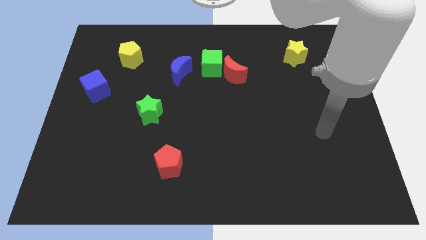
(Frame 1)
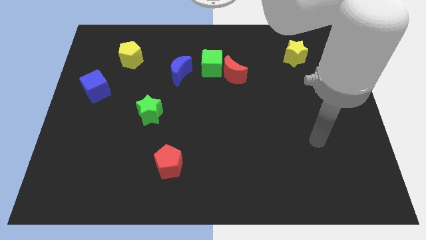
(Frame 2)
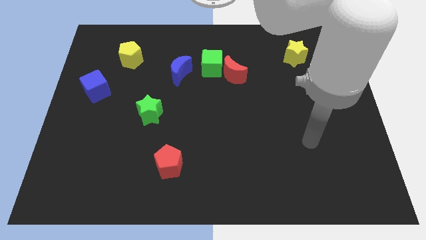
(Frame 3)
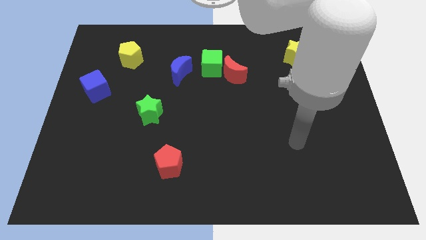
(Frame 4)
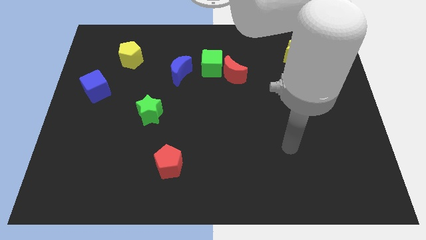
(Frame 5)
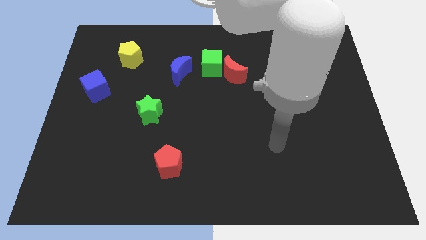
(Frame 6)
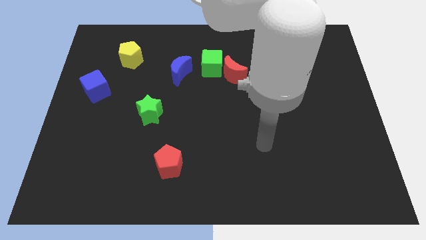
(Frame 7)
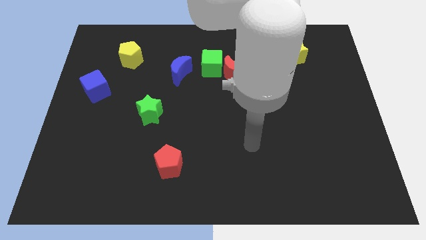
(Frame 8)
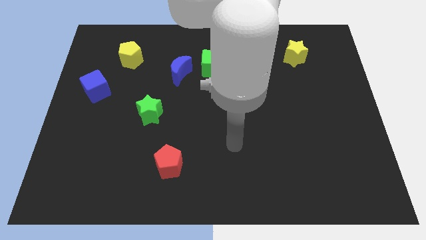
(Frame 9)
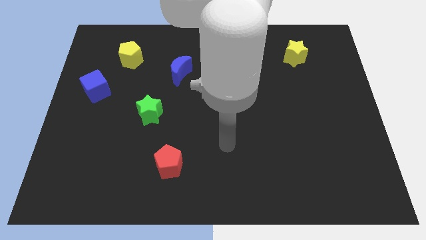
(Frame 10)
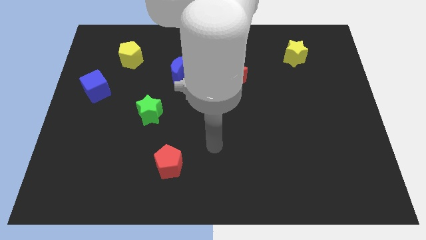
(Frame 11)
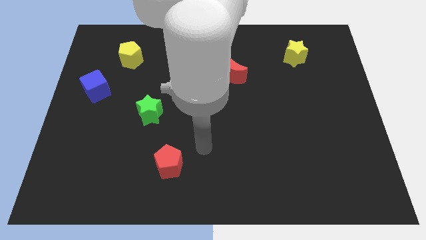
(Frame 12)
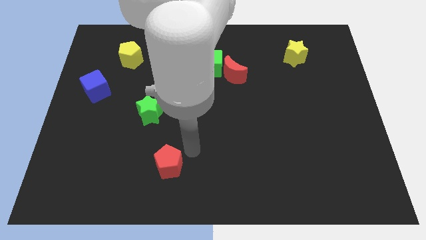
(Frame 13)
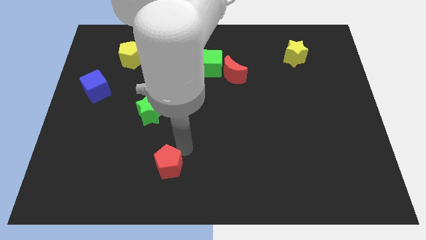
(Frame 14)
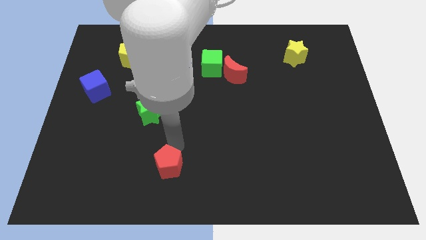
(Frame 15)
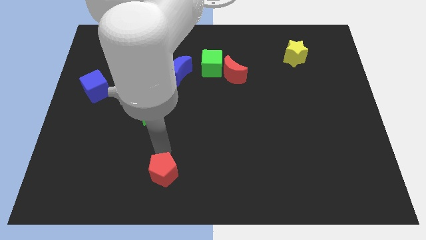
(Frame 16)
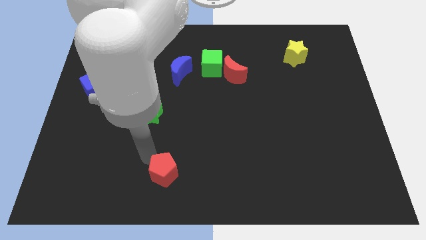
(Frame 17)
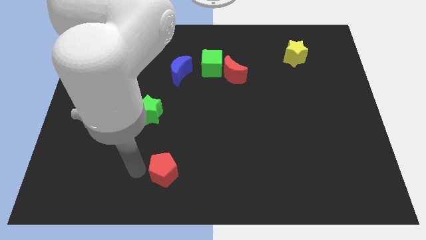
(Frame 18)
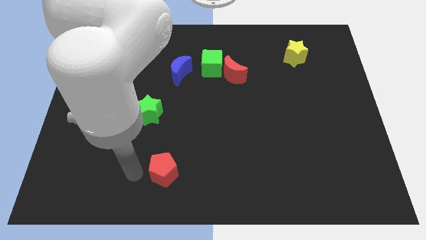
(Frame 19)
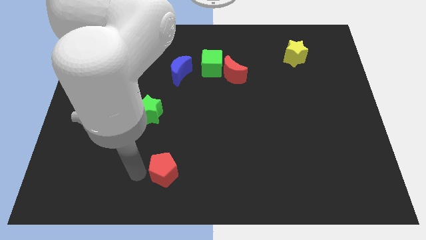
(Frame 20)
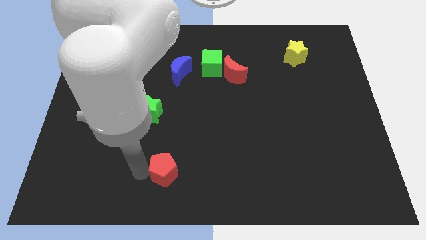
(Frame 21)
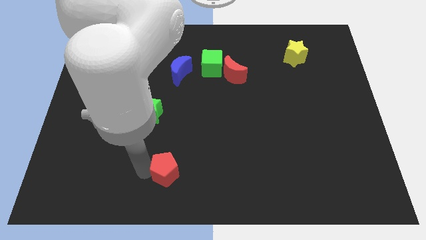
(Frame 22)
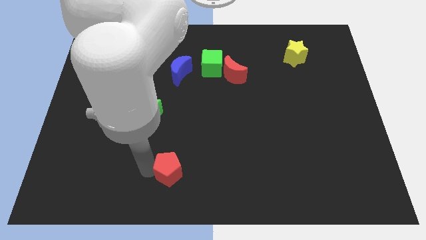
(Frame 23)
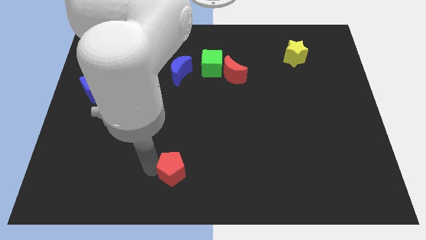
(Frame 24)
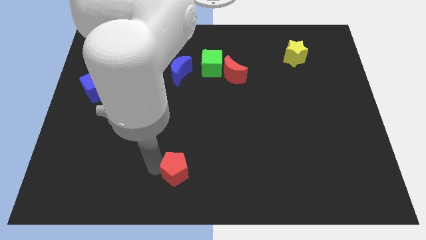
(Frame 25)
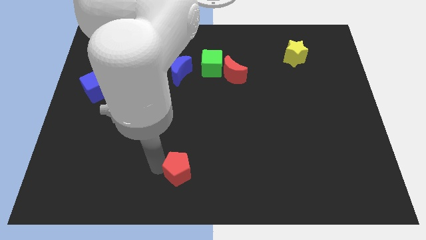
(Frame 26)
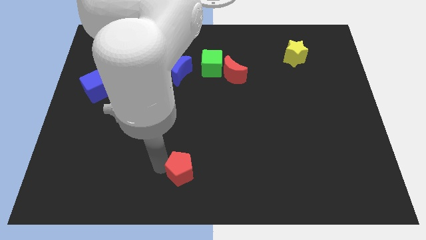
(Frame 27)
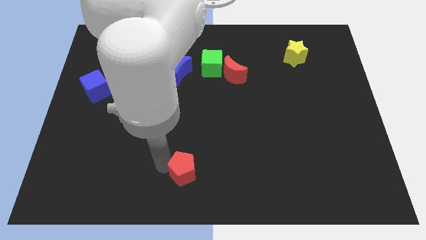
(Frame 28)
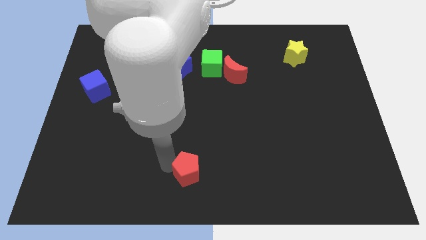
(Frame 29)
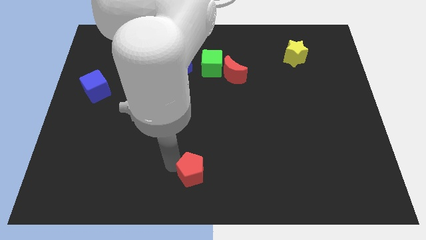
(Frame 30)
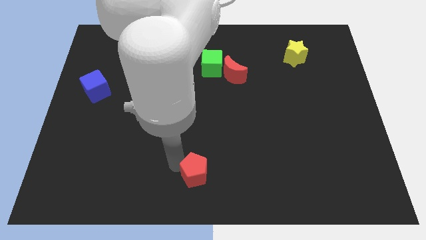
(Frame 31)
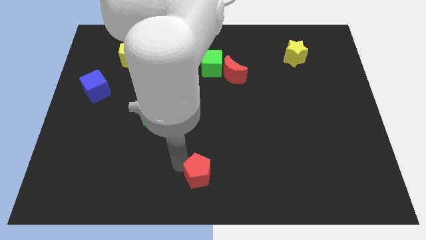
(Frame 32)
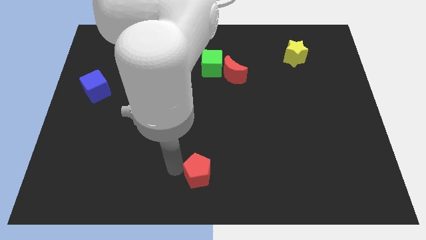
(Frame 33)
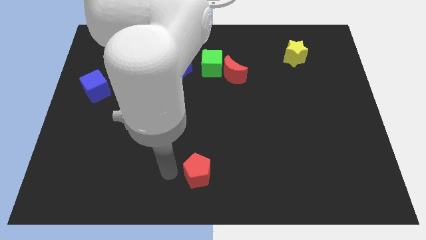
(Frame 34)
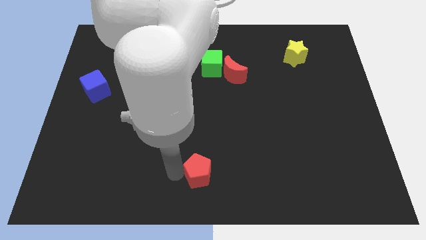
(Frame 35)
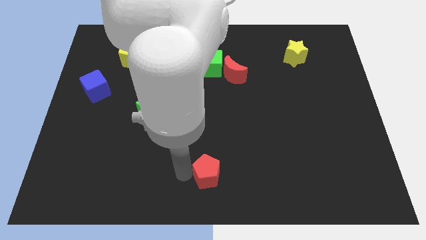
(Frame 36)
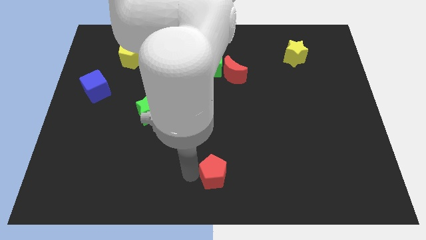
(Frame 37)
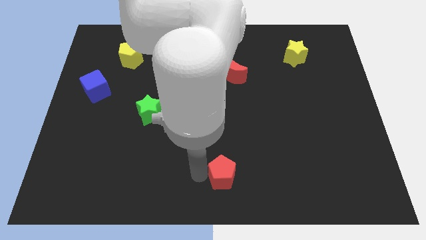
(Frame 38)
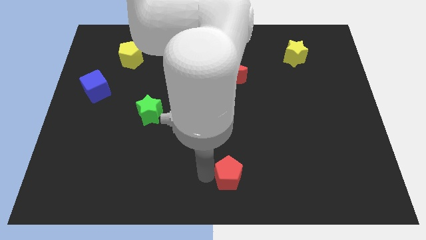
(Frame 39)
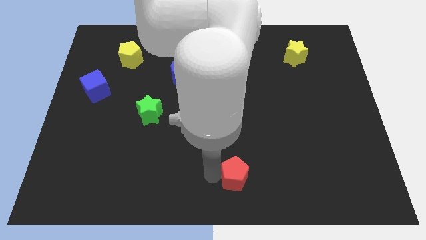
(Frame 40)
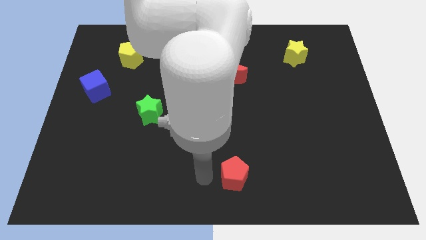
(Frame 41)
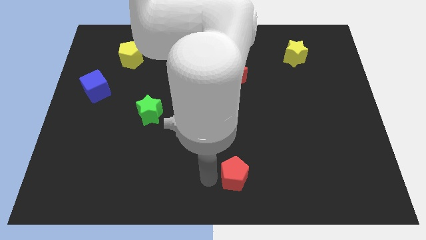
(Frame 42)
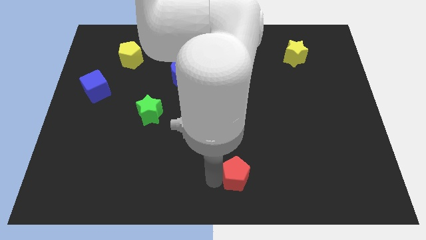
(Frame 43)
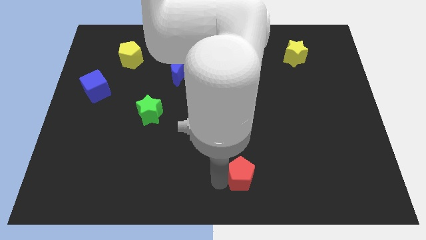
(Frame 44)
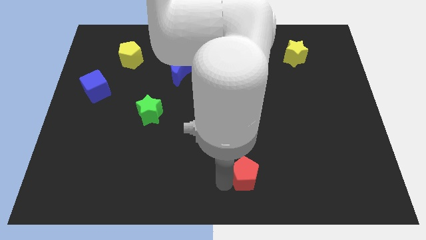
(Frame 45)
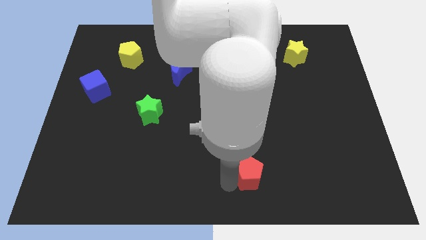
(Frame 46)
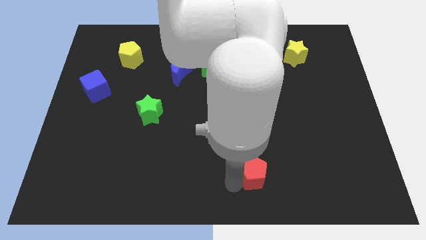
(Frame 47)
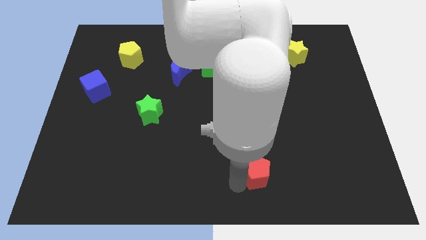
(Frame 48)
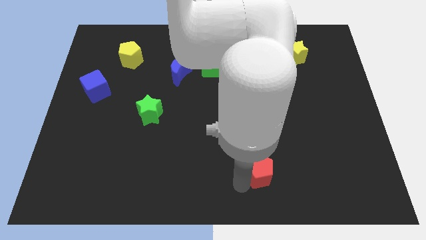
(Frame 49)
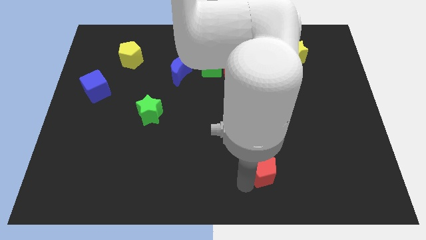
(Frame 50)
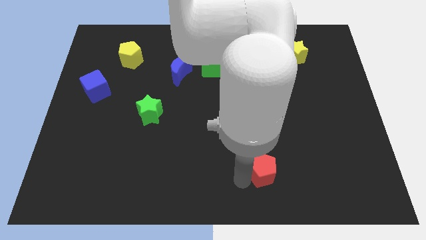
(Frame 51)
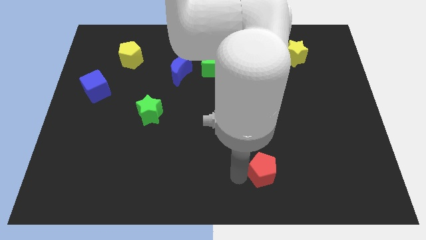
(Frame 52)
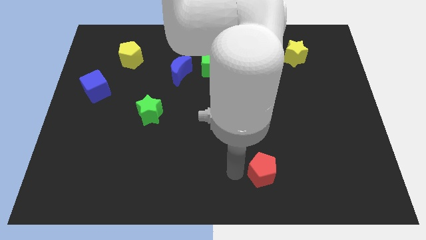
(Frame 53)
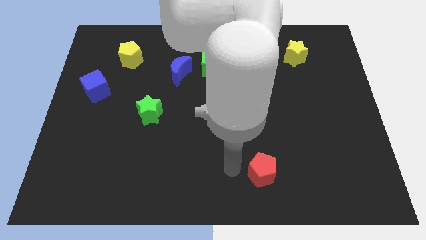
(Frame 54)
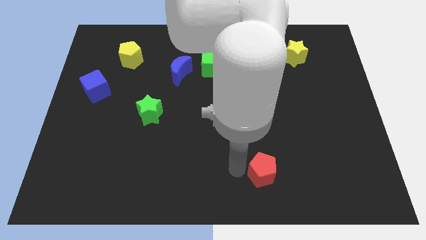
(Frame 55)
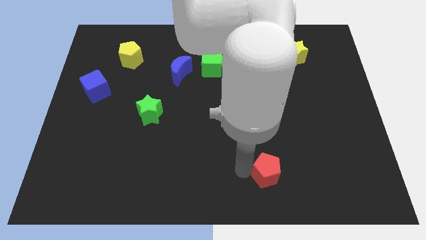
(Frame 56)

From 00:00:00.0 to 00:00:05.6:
move the red pentagon right

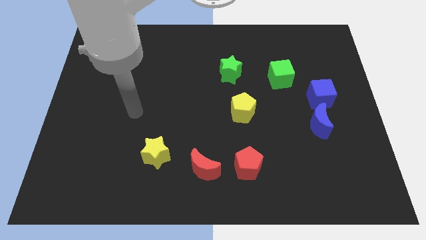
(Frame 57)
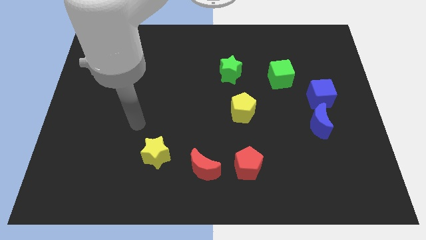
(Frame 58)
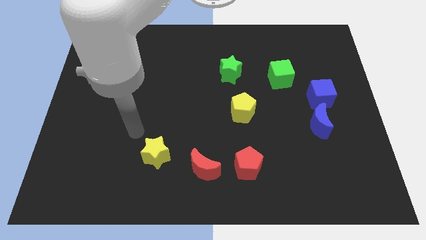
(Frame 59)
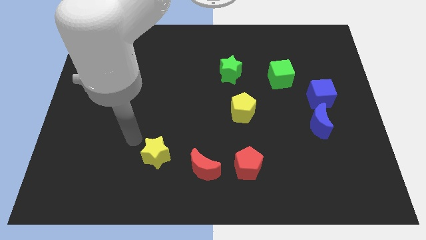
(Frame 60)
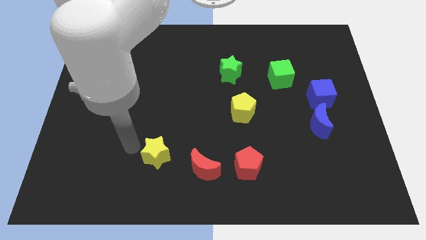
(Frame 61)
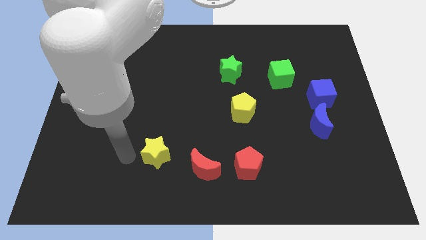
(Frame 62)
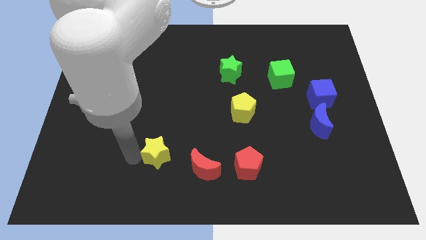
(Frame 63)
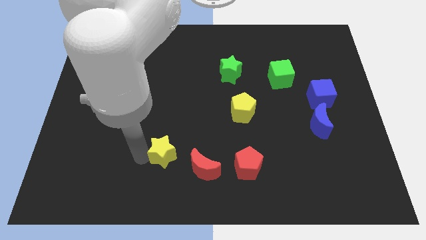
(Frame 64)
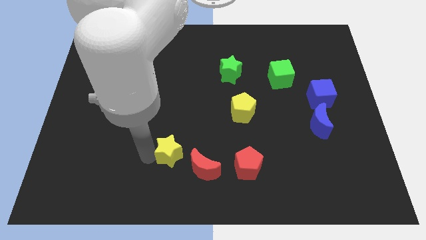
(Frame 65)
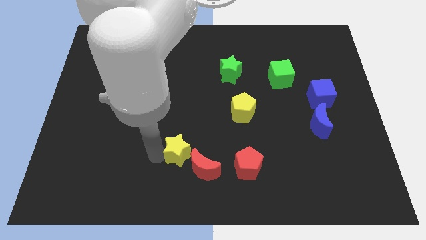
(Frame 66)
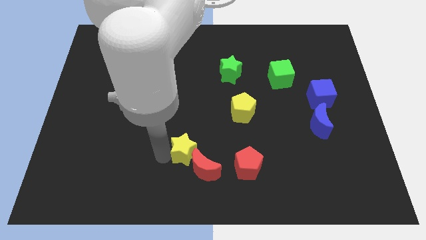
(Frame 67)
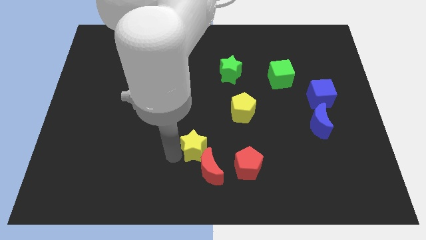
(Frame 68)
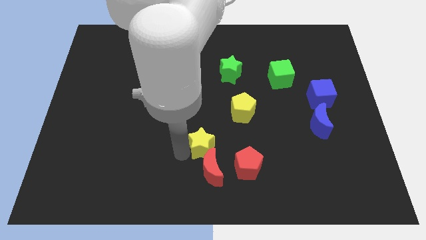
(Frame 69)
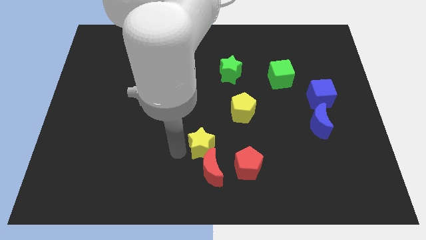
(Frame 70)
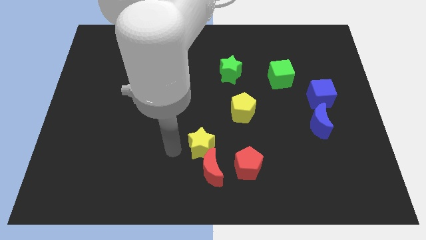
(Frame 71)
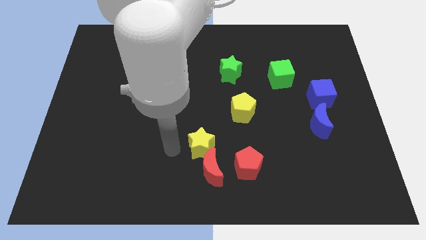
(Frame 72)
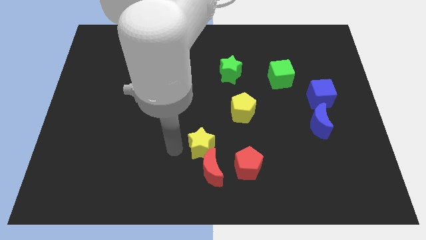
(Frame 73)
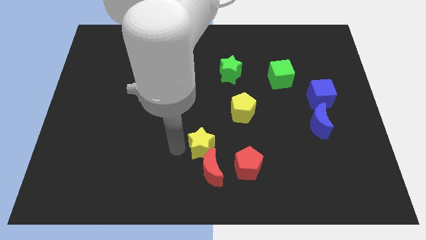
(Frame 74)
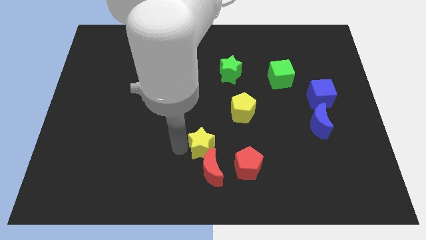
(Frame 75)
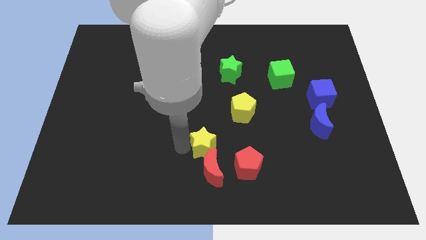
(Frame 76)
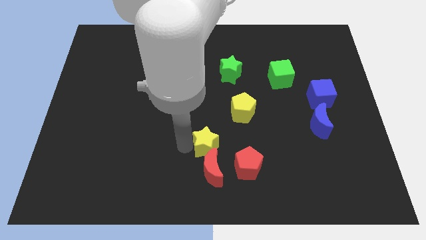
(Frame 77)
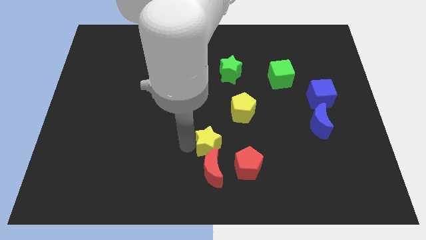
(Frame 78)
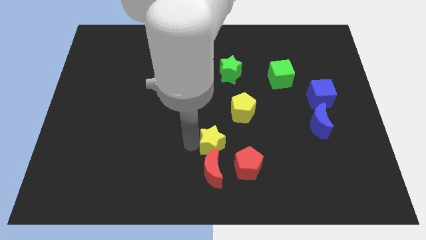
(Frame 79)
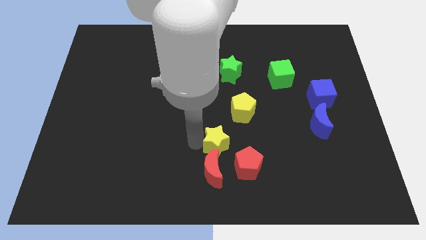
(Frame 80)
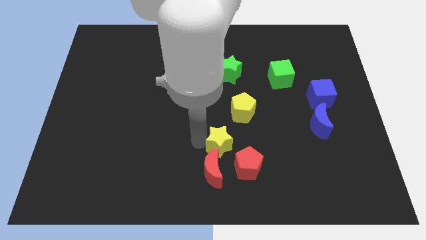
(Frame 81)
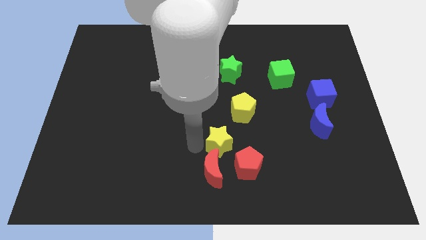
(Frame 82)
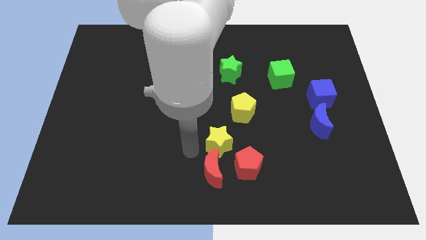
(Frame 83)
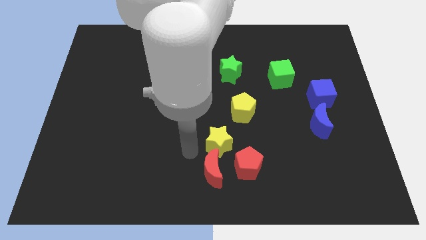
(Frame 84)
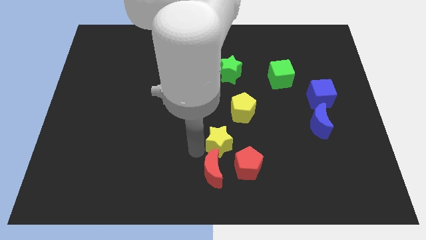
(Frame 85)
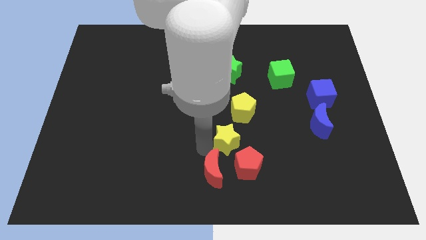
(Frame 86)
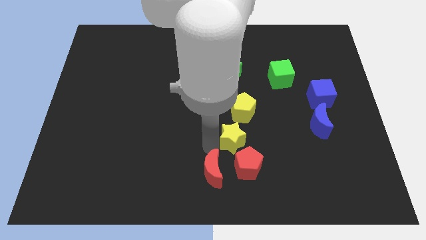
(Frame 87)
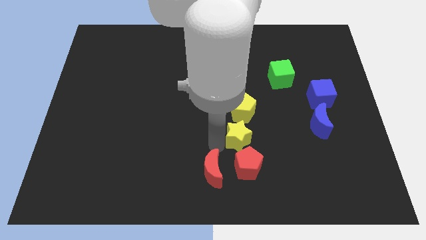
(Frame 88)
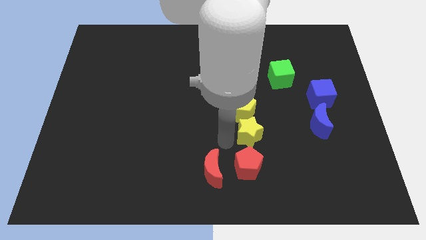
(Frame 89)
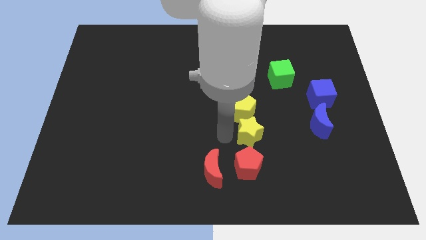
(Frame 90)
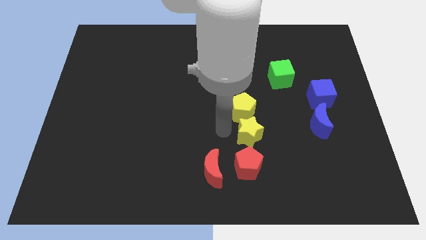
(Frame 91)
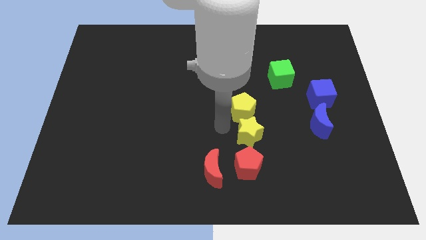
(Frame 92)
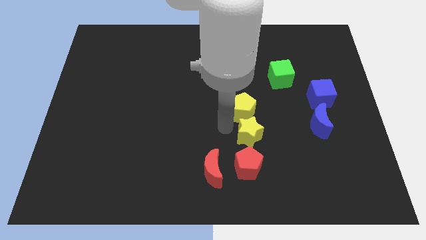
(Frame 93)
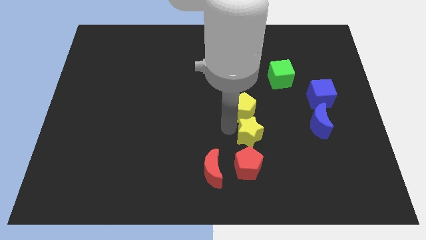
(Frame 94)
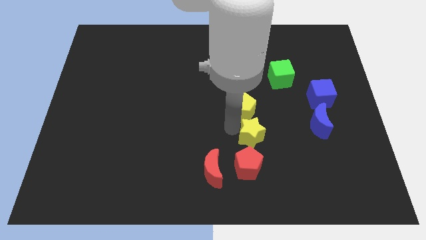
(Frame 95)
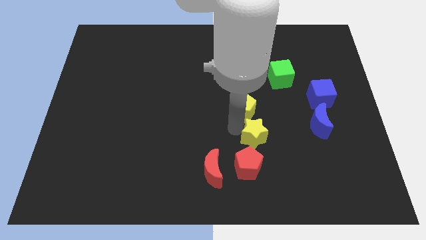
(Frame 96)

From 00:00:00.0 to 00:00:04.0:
push the yellow star to the right
